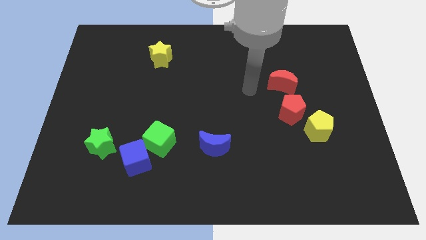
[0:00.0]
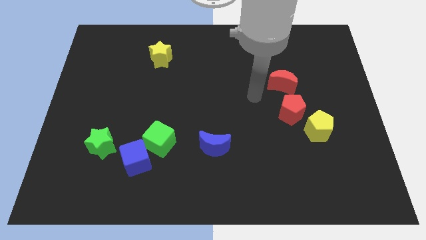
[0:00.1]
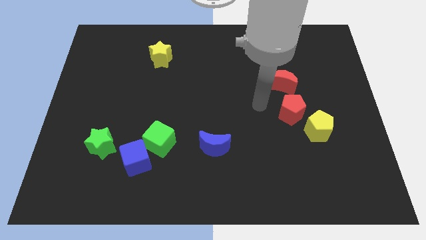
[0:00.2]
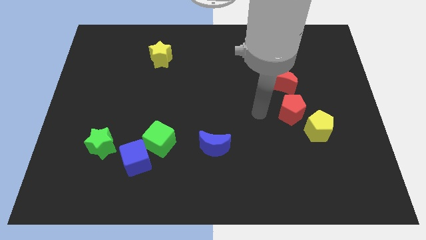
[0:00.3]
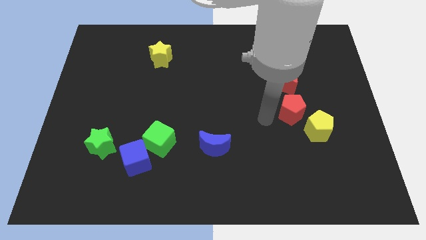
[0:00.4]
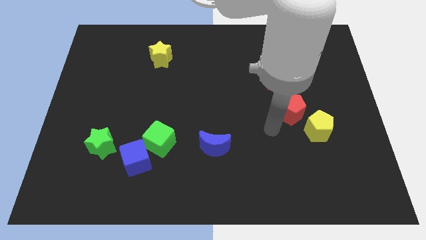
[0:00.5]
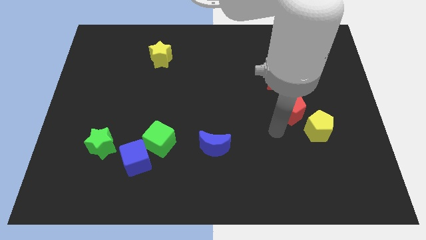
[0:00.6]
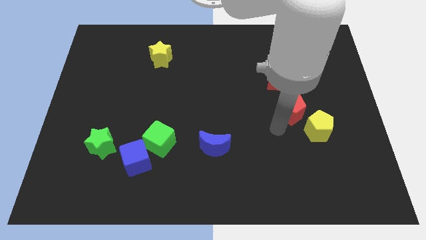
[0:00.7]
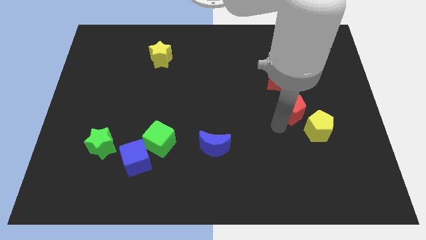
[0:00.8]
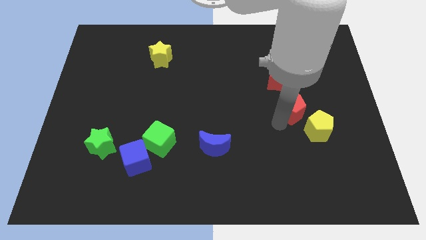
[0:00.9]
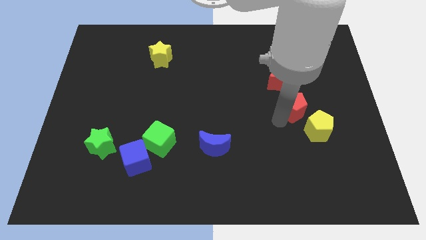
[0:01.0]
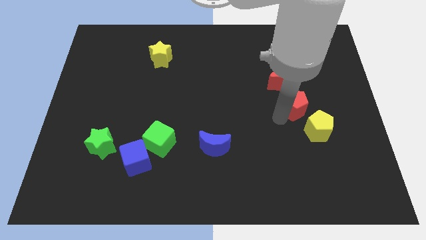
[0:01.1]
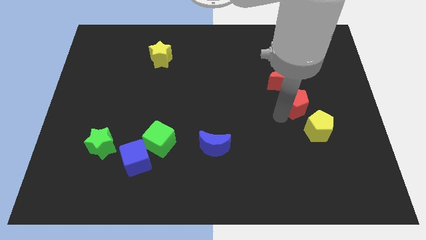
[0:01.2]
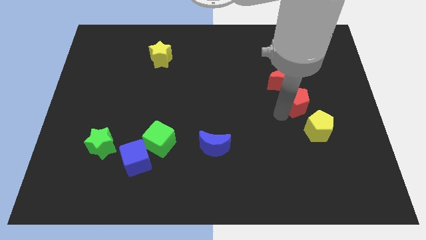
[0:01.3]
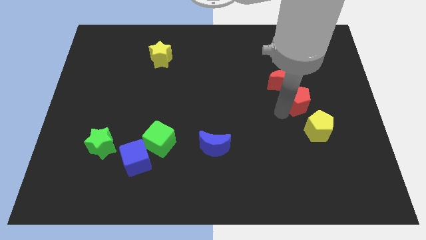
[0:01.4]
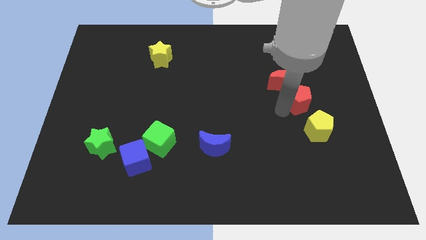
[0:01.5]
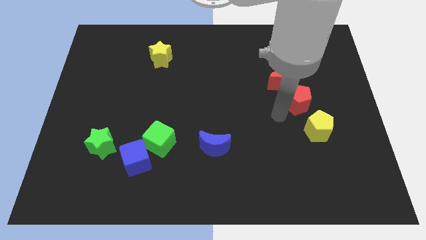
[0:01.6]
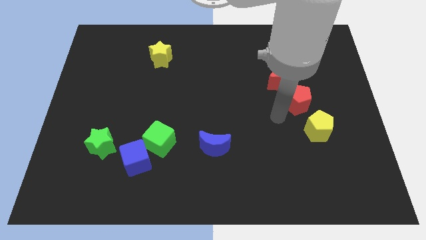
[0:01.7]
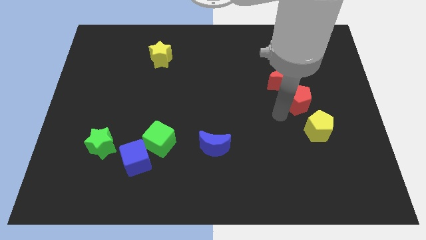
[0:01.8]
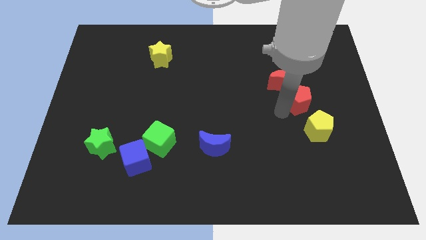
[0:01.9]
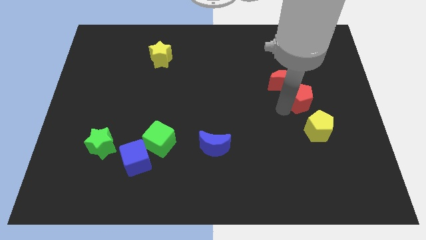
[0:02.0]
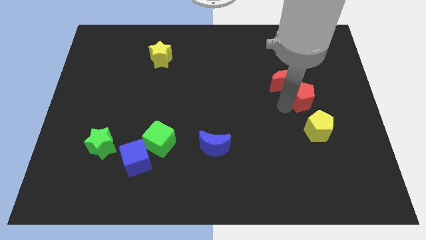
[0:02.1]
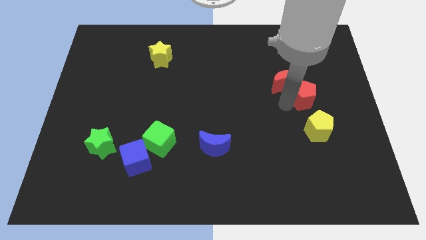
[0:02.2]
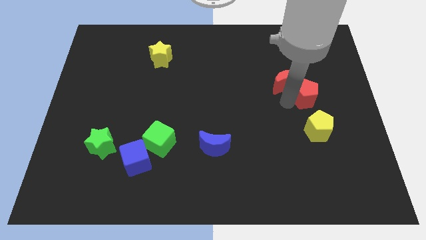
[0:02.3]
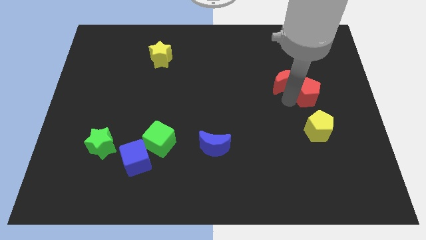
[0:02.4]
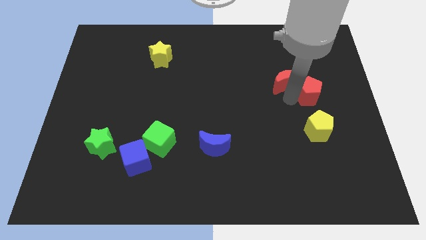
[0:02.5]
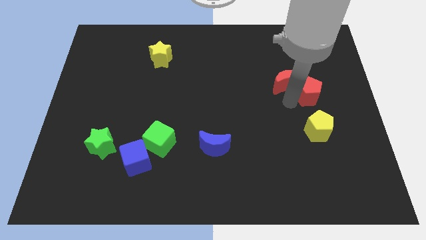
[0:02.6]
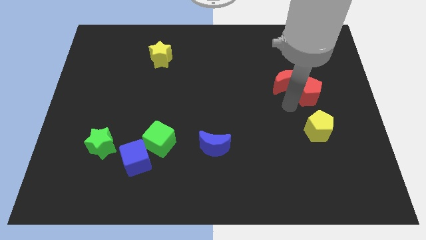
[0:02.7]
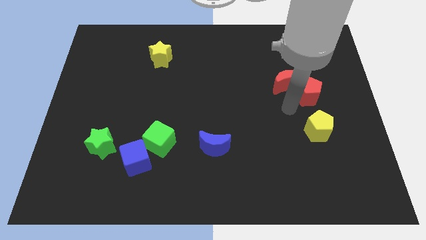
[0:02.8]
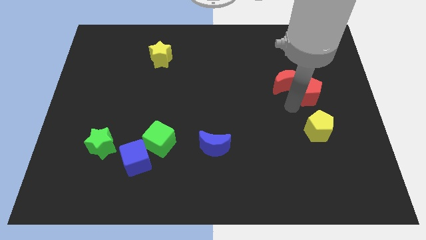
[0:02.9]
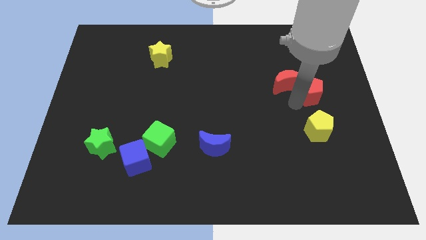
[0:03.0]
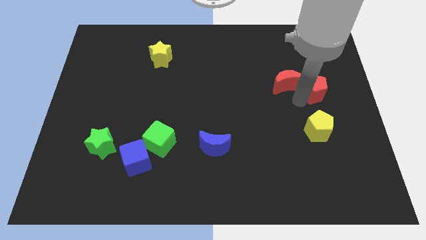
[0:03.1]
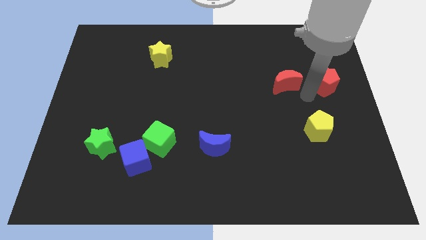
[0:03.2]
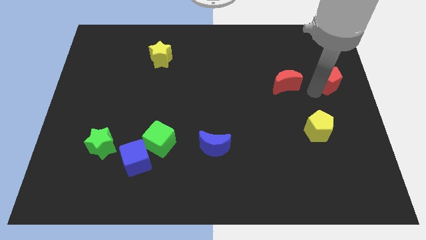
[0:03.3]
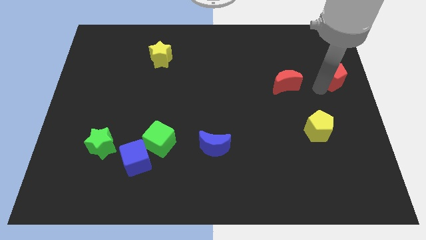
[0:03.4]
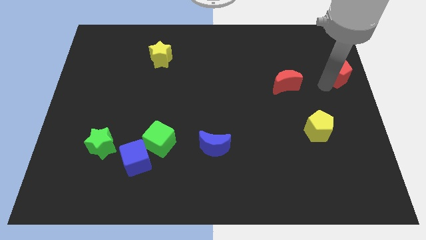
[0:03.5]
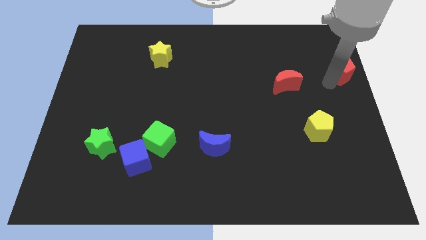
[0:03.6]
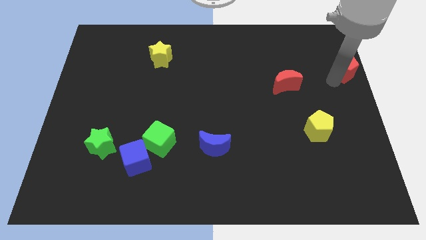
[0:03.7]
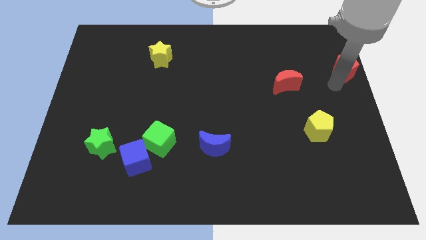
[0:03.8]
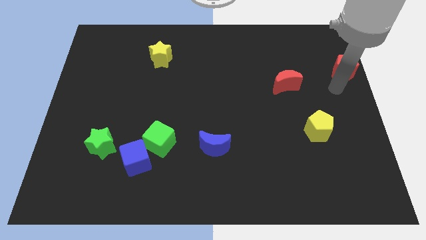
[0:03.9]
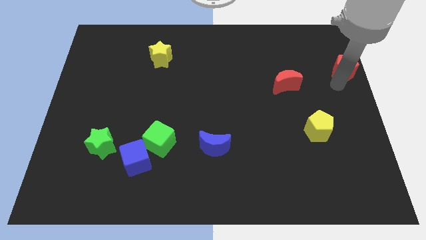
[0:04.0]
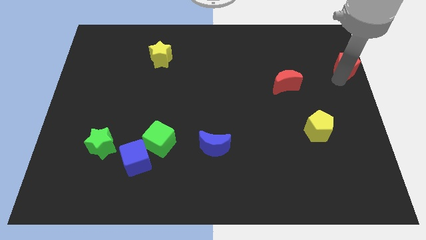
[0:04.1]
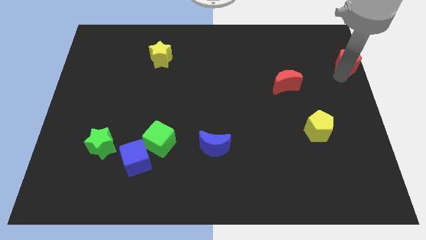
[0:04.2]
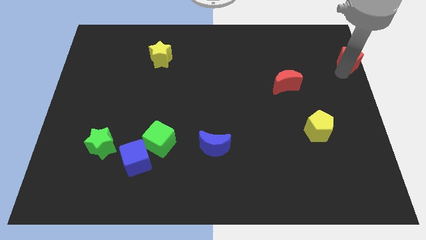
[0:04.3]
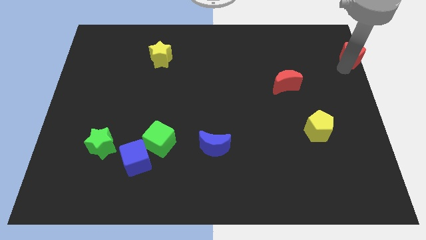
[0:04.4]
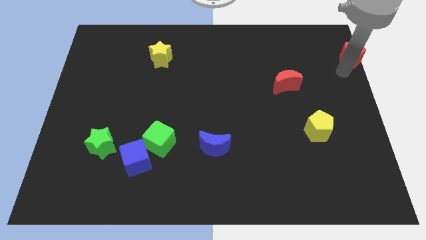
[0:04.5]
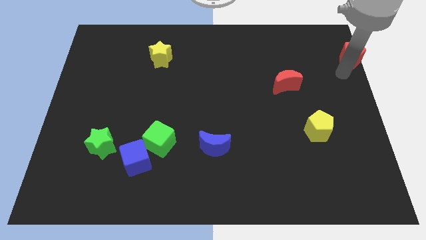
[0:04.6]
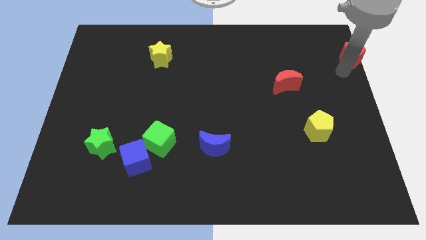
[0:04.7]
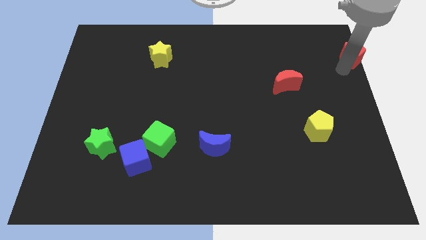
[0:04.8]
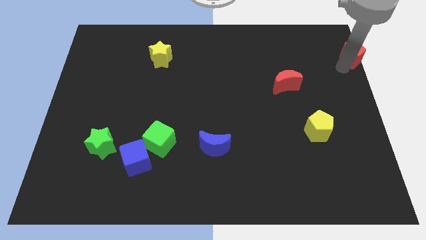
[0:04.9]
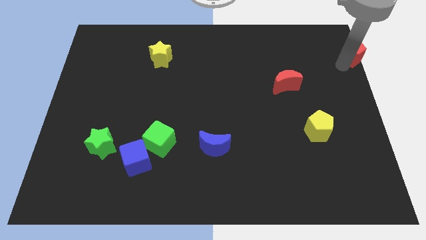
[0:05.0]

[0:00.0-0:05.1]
move the red pentagon to the top right of the board

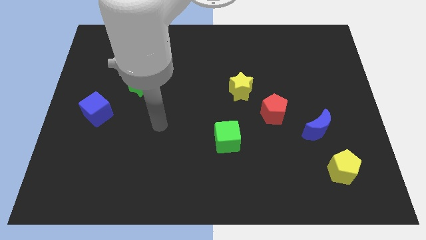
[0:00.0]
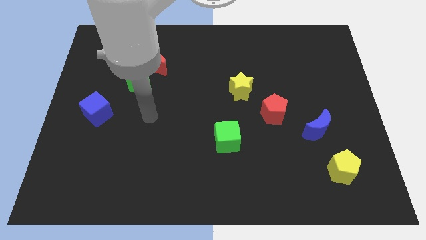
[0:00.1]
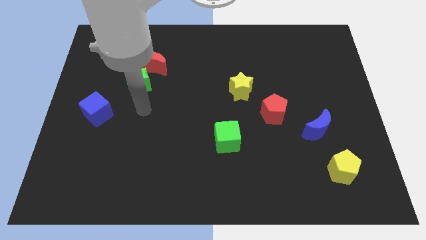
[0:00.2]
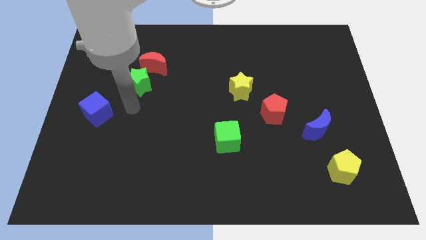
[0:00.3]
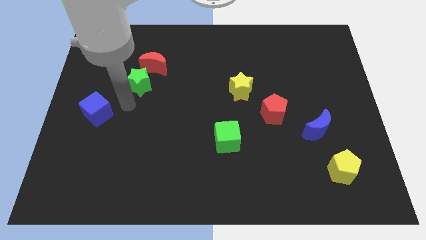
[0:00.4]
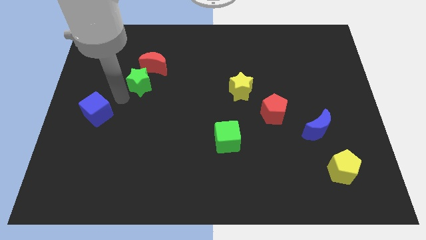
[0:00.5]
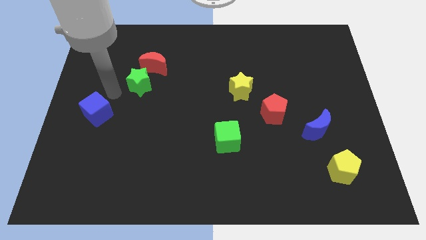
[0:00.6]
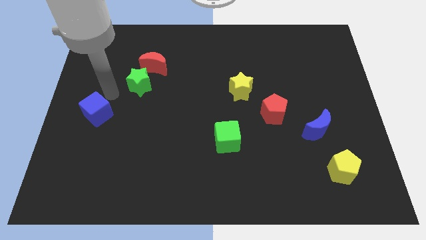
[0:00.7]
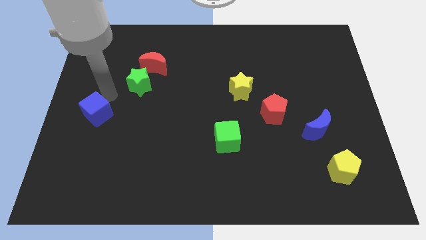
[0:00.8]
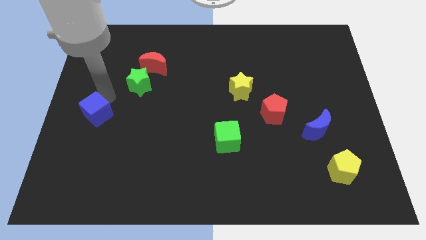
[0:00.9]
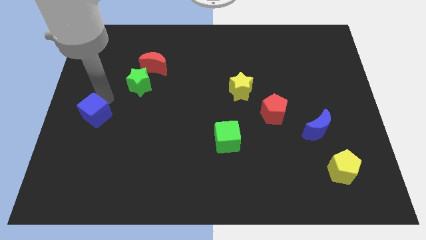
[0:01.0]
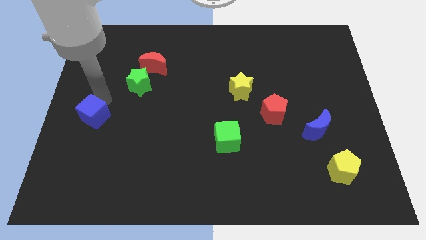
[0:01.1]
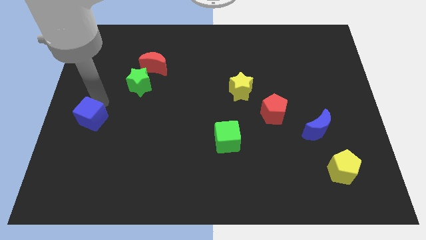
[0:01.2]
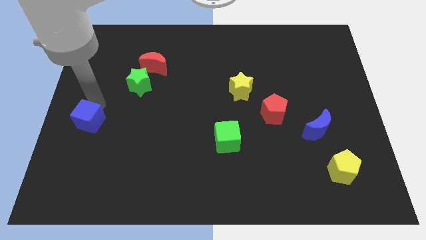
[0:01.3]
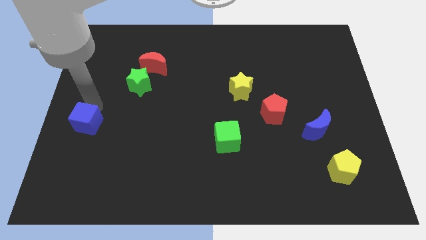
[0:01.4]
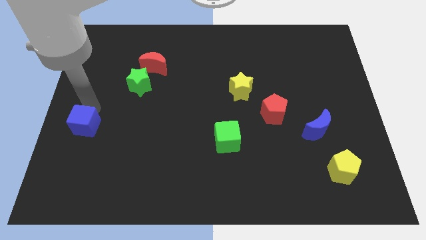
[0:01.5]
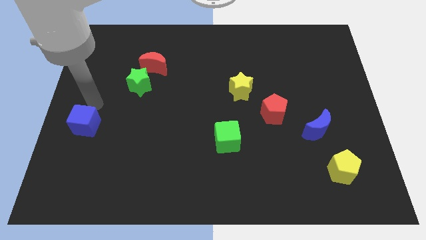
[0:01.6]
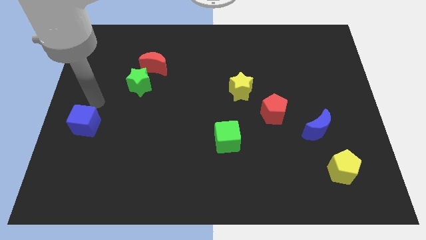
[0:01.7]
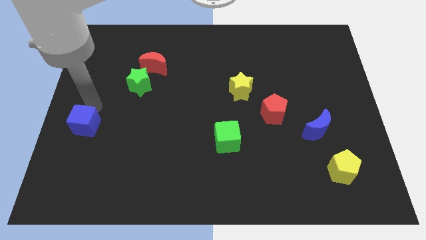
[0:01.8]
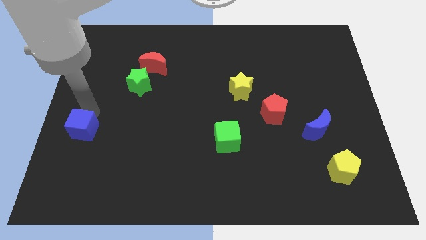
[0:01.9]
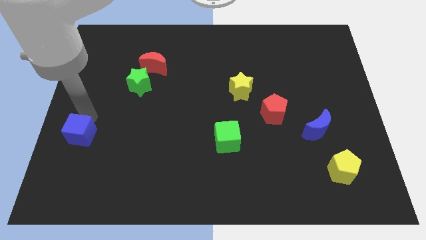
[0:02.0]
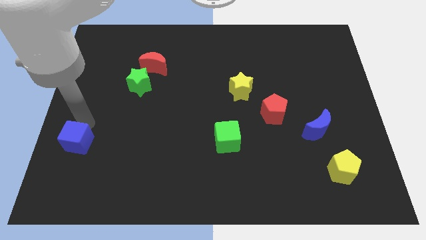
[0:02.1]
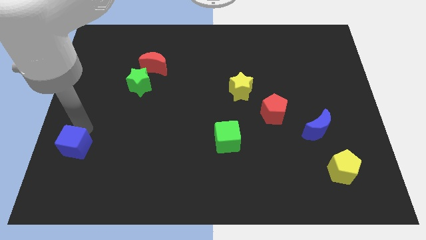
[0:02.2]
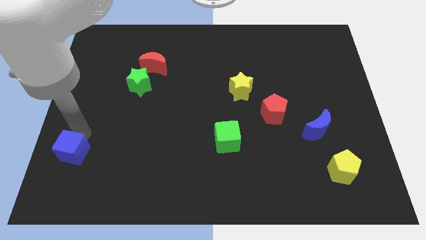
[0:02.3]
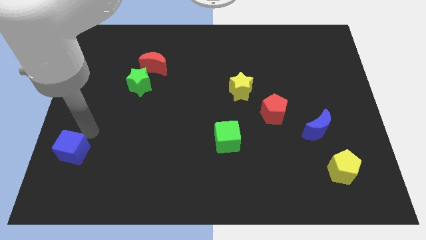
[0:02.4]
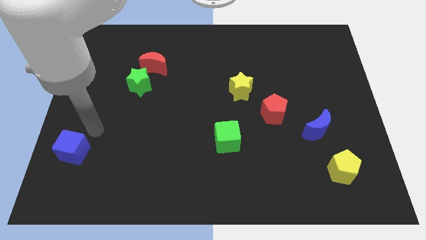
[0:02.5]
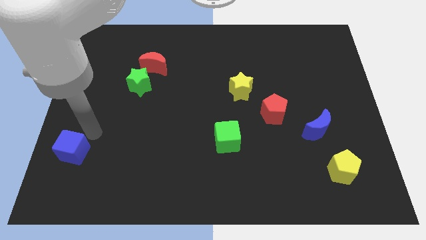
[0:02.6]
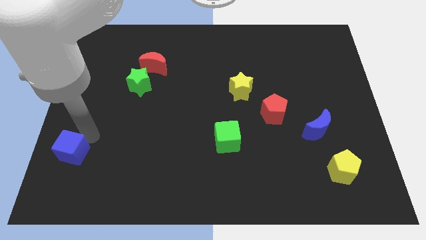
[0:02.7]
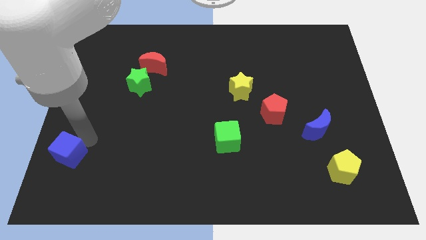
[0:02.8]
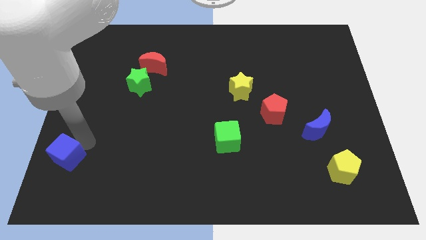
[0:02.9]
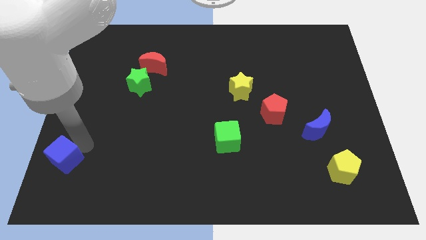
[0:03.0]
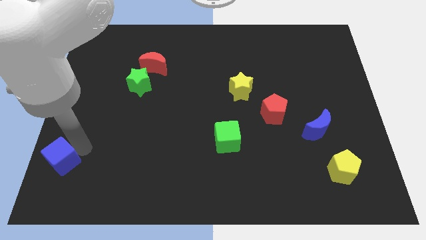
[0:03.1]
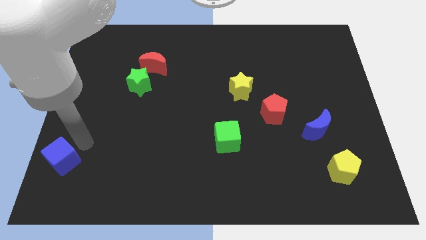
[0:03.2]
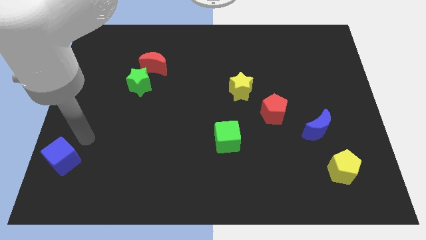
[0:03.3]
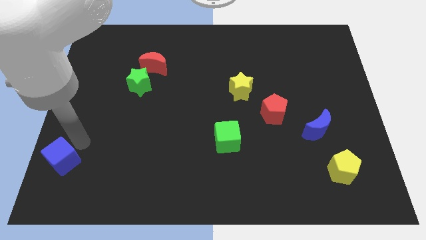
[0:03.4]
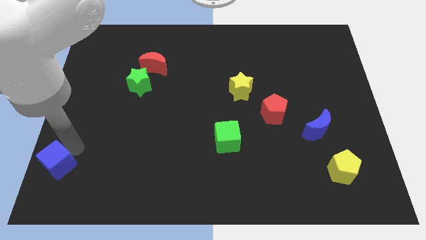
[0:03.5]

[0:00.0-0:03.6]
move the blue cube to the bottom left of the board
